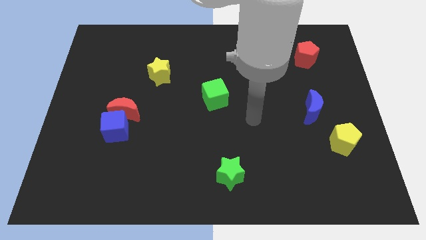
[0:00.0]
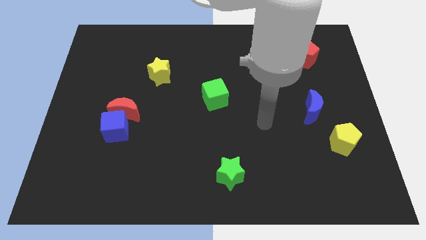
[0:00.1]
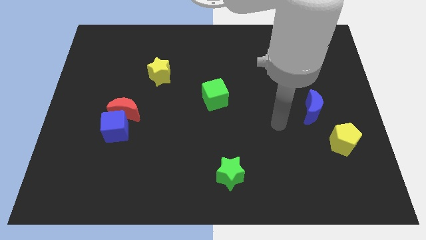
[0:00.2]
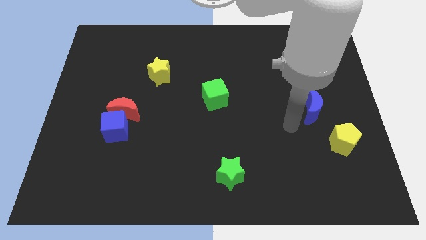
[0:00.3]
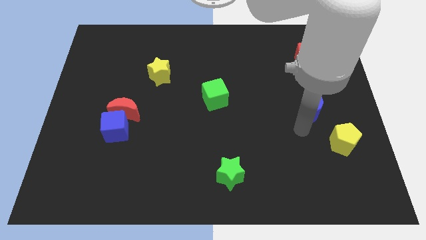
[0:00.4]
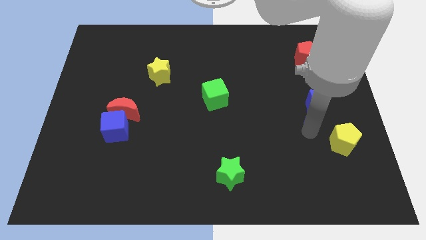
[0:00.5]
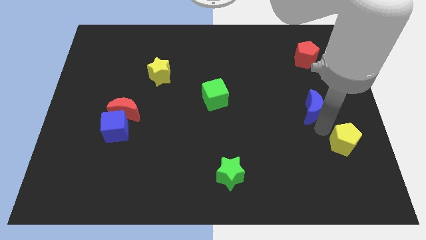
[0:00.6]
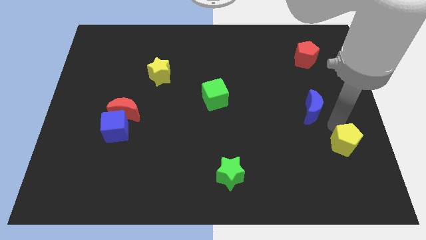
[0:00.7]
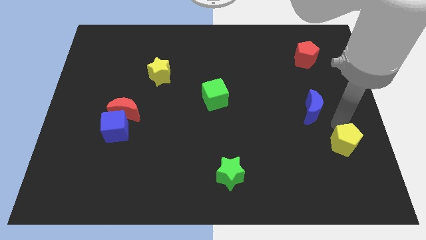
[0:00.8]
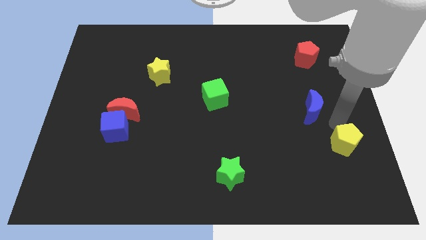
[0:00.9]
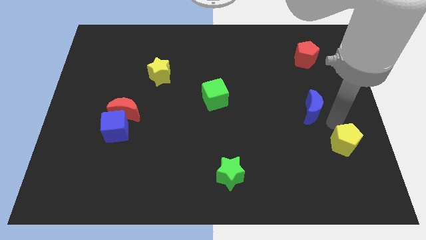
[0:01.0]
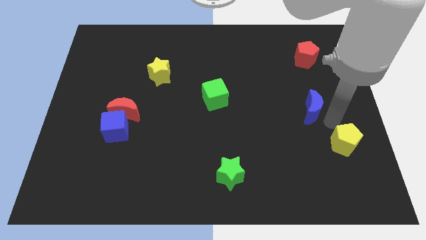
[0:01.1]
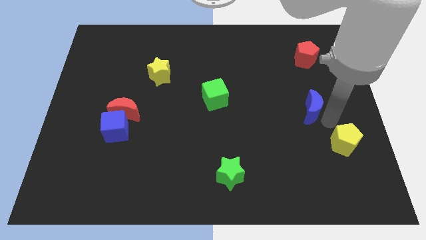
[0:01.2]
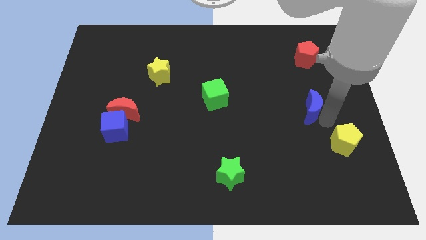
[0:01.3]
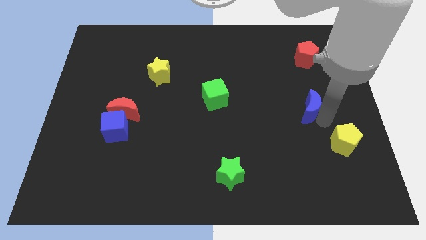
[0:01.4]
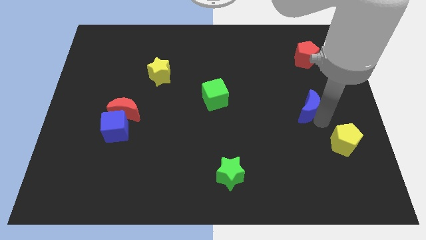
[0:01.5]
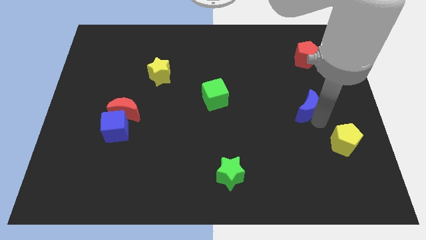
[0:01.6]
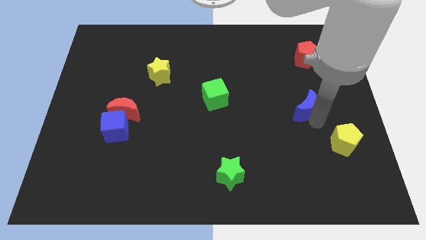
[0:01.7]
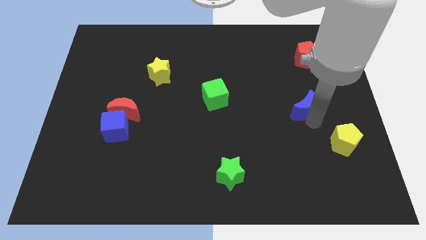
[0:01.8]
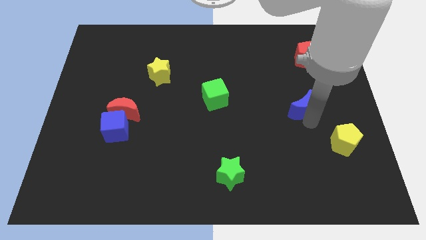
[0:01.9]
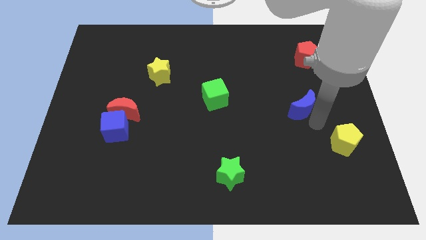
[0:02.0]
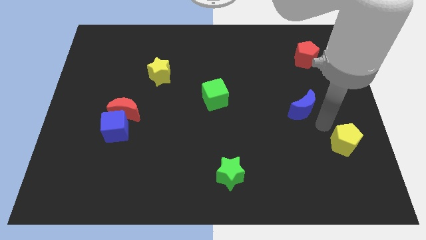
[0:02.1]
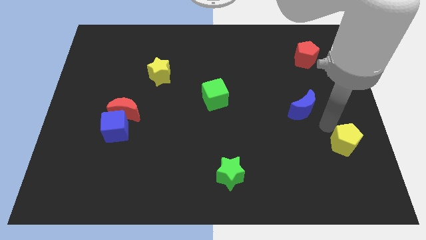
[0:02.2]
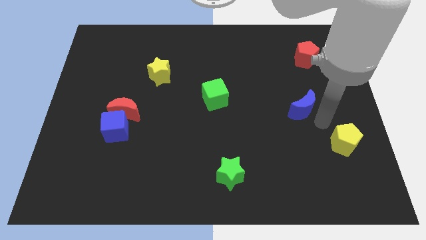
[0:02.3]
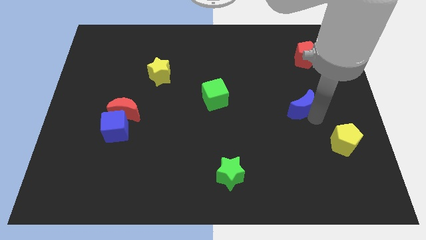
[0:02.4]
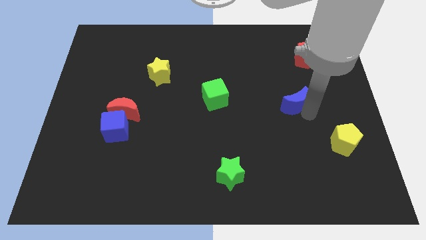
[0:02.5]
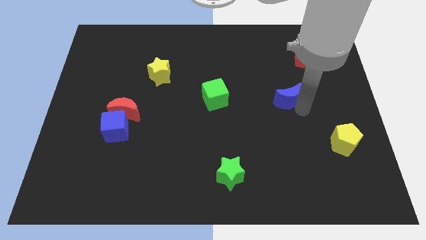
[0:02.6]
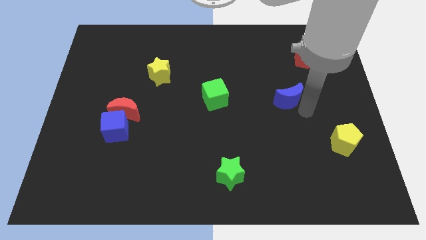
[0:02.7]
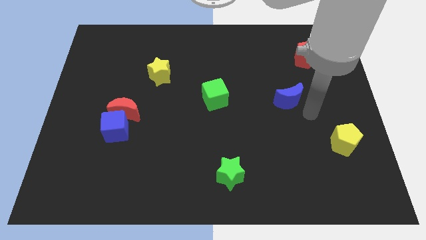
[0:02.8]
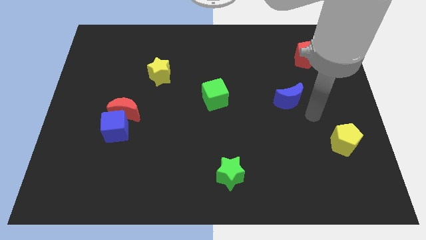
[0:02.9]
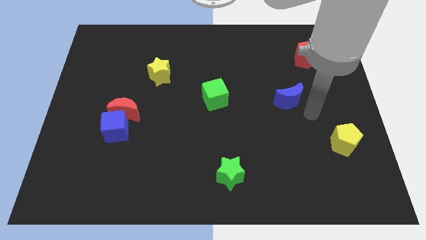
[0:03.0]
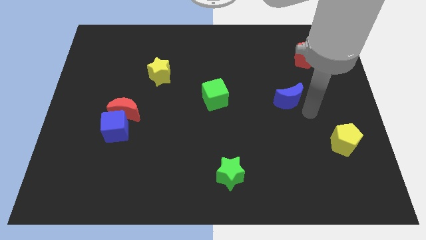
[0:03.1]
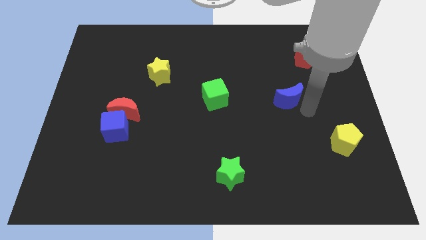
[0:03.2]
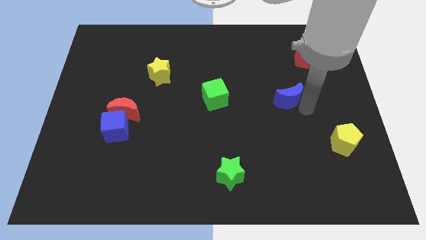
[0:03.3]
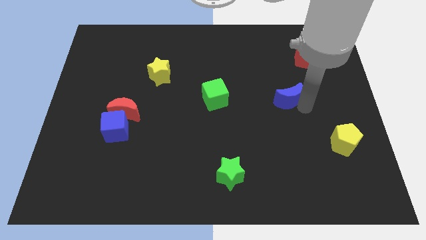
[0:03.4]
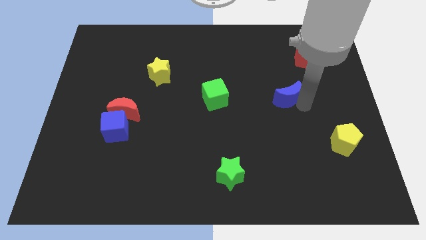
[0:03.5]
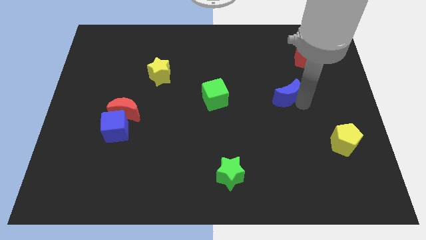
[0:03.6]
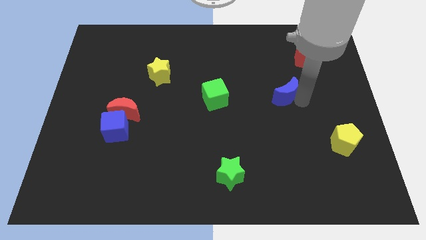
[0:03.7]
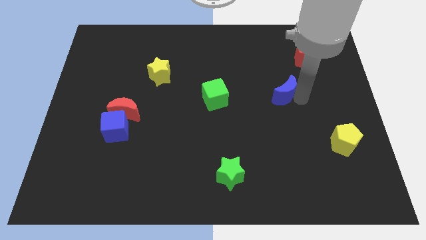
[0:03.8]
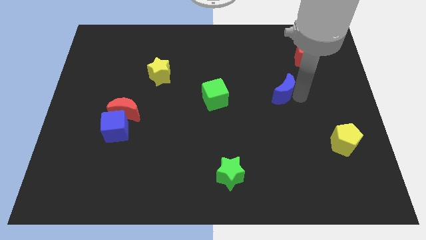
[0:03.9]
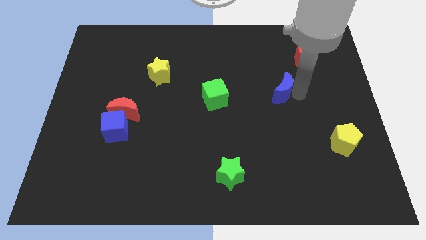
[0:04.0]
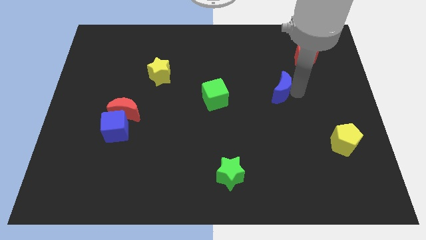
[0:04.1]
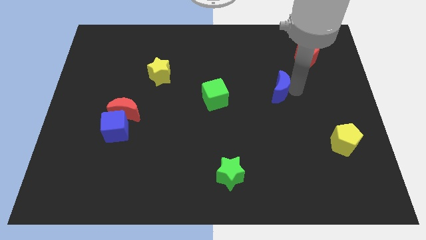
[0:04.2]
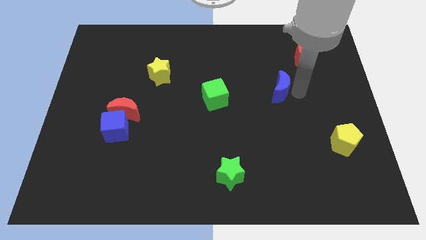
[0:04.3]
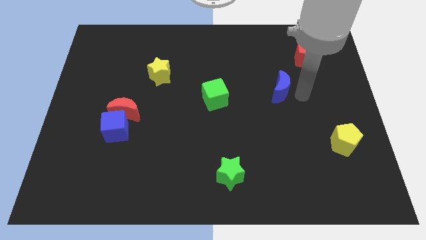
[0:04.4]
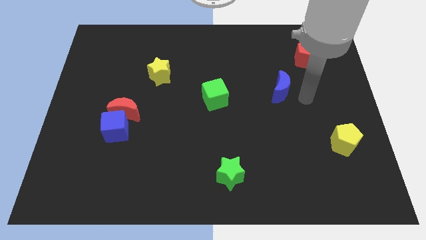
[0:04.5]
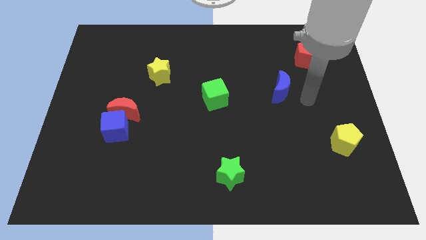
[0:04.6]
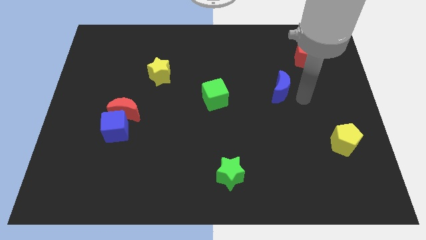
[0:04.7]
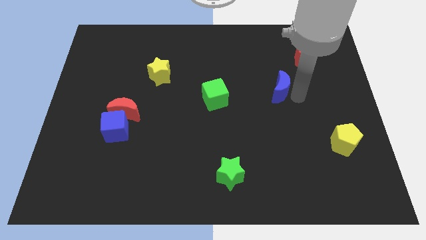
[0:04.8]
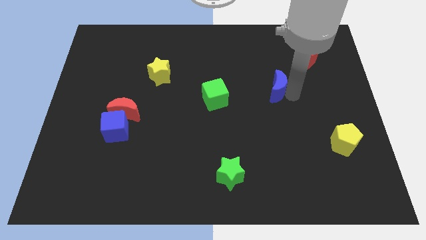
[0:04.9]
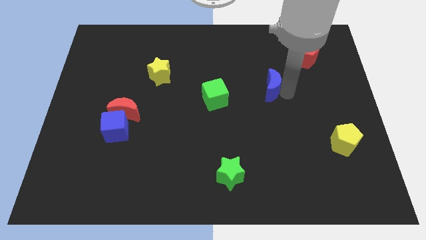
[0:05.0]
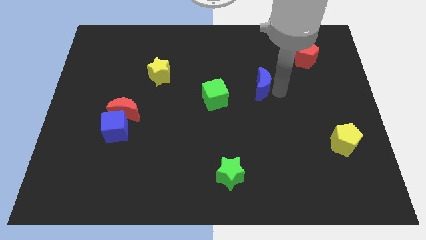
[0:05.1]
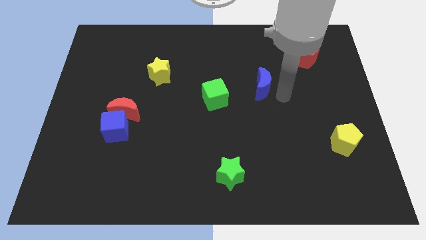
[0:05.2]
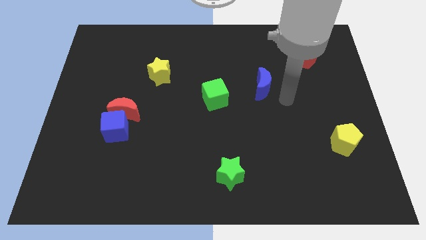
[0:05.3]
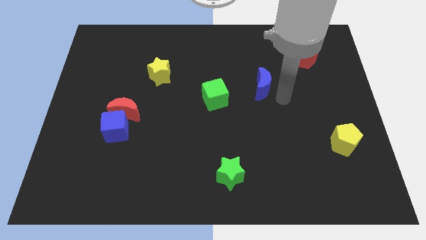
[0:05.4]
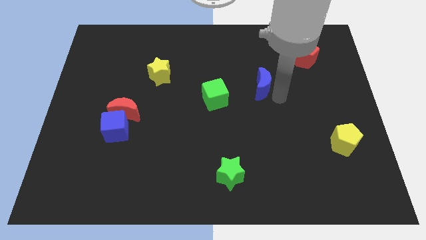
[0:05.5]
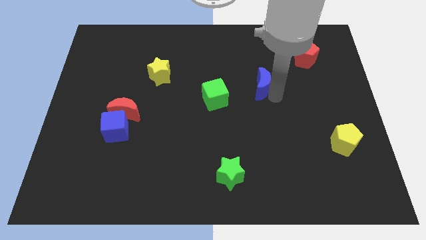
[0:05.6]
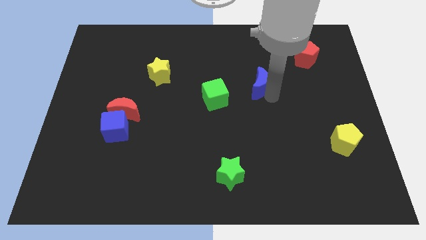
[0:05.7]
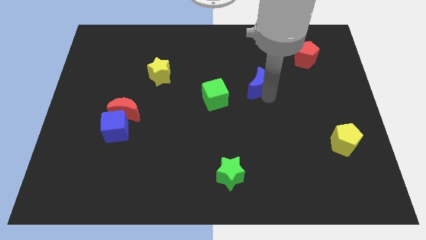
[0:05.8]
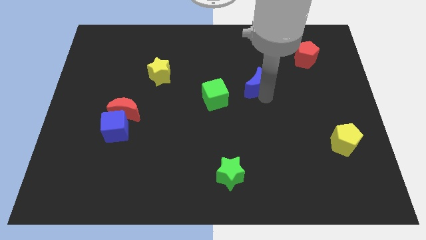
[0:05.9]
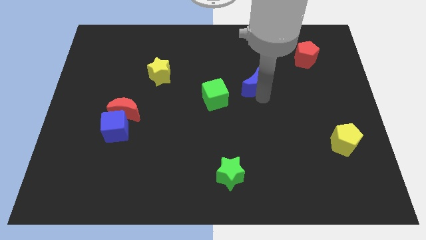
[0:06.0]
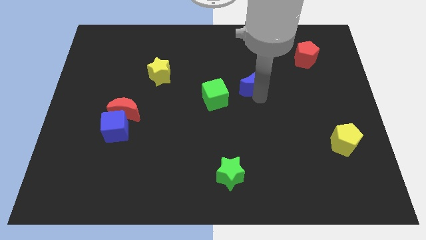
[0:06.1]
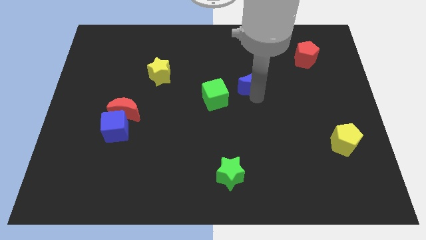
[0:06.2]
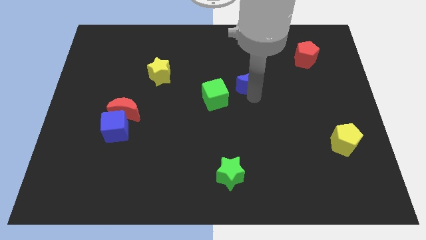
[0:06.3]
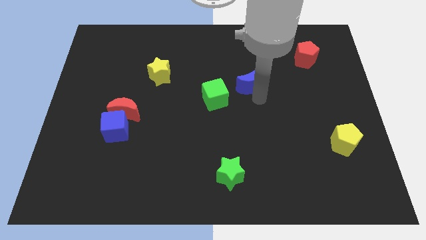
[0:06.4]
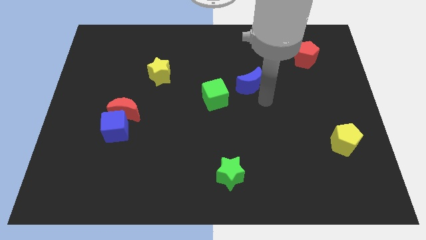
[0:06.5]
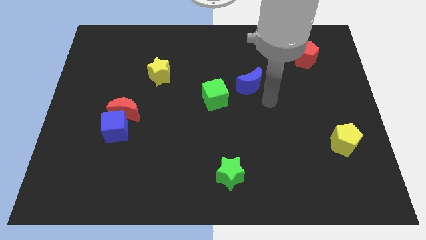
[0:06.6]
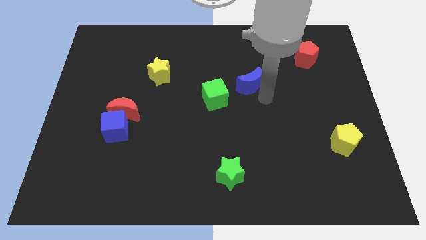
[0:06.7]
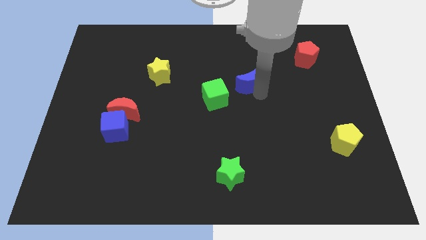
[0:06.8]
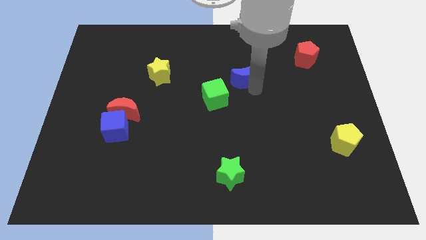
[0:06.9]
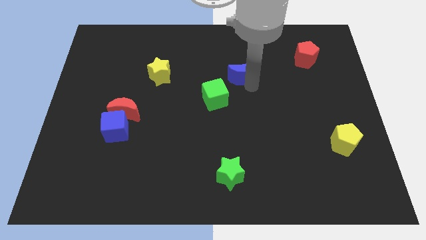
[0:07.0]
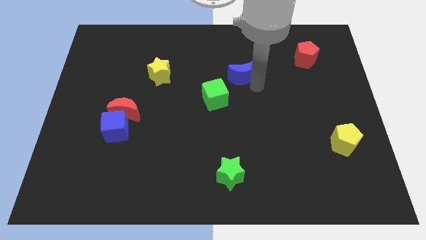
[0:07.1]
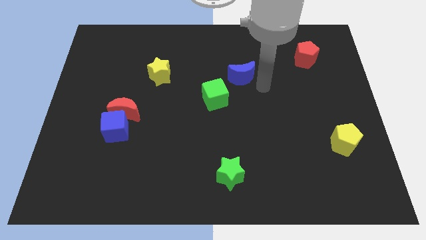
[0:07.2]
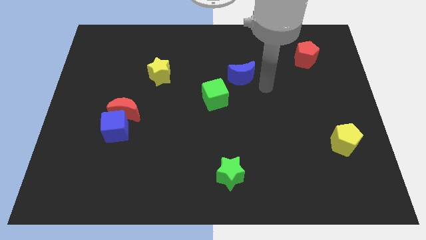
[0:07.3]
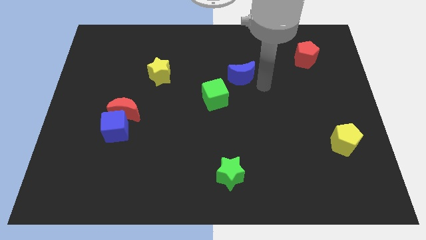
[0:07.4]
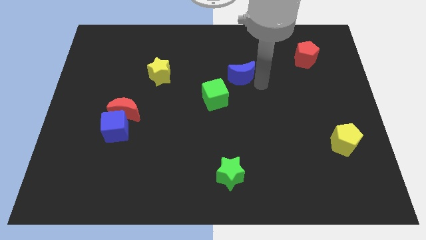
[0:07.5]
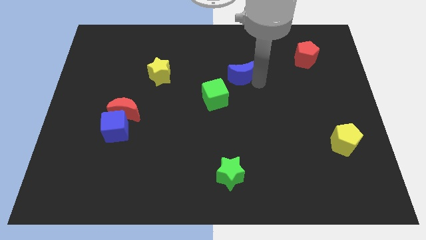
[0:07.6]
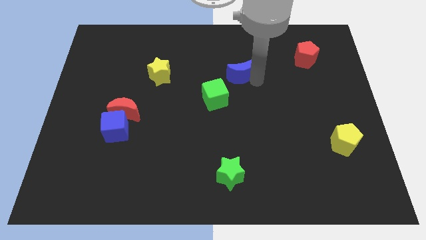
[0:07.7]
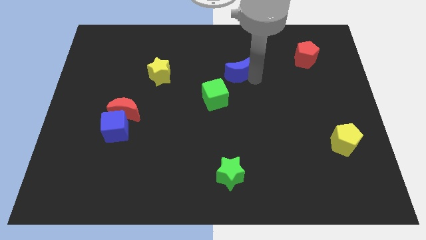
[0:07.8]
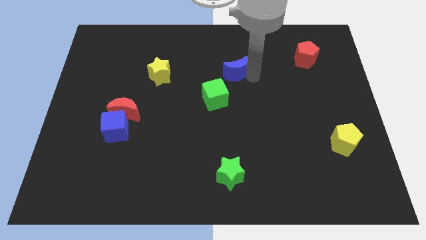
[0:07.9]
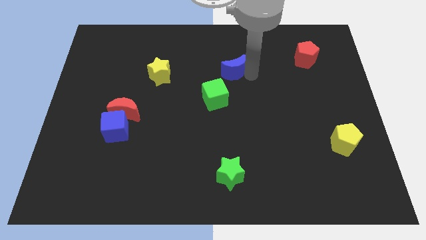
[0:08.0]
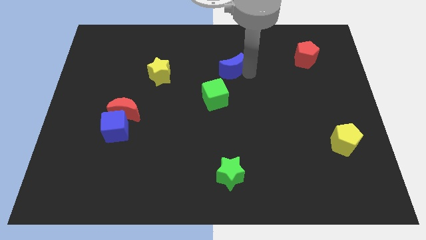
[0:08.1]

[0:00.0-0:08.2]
push the blue moon to the top of the green cube
